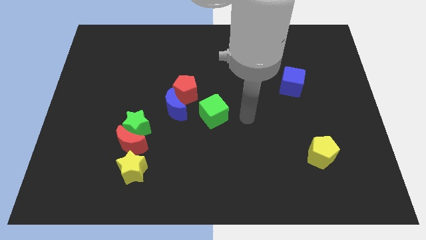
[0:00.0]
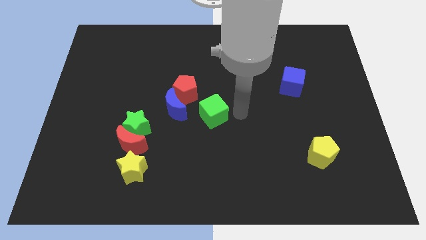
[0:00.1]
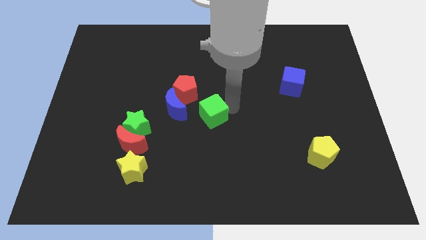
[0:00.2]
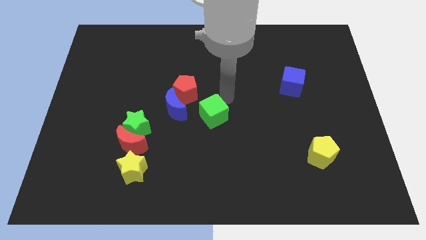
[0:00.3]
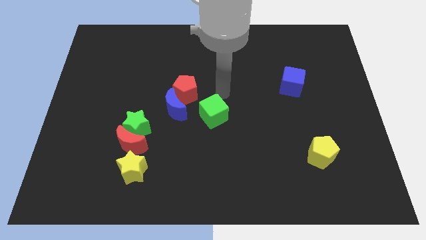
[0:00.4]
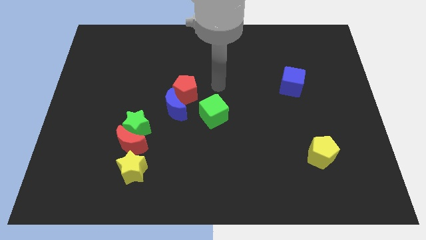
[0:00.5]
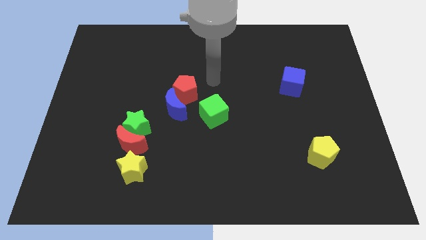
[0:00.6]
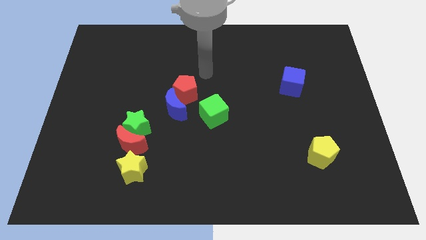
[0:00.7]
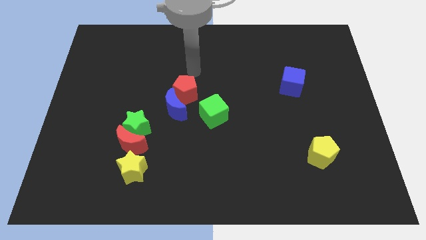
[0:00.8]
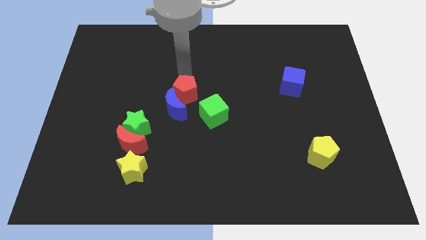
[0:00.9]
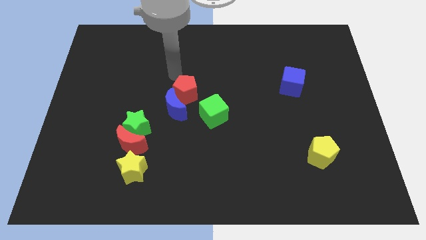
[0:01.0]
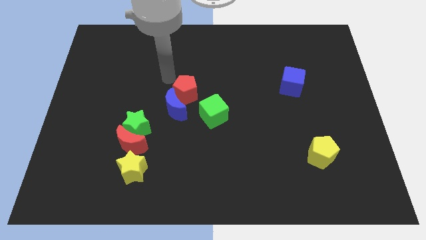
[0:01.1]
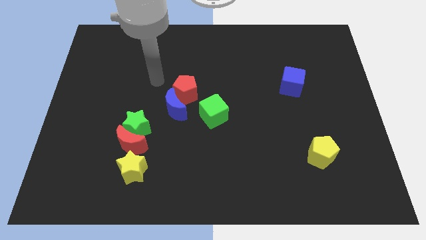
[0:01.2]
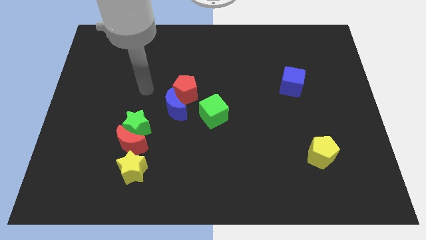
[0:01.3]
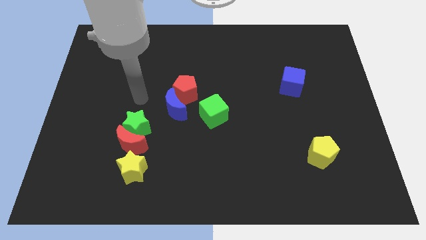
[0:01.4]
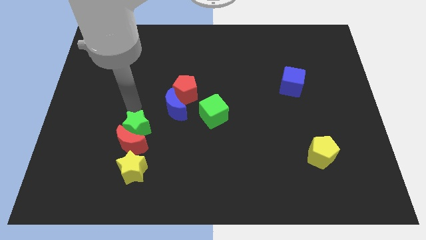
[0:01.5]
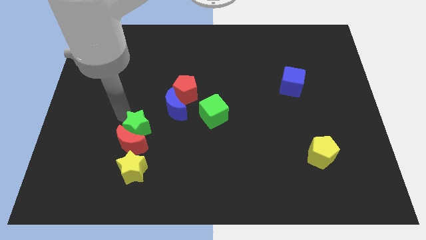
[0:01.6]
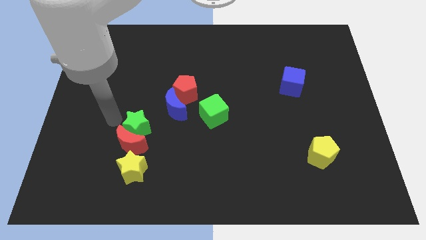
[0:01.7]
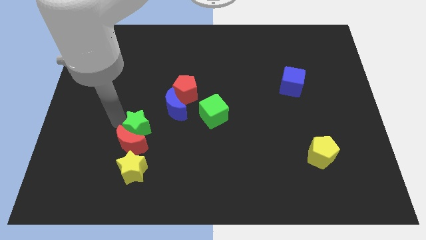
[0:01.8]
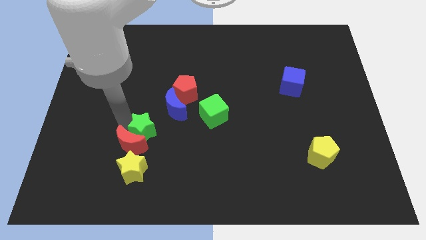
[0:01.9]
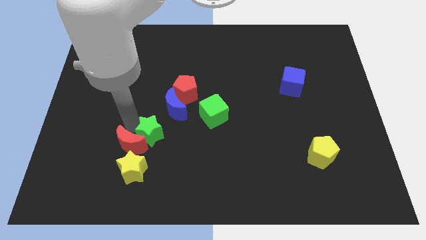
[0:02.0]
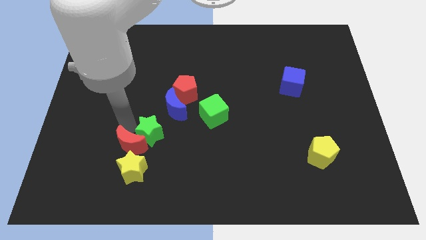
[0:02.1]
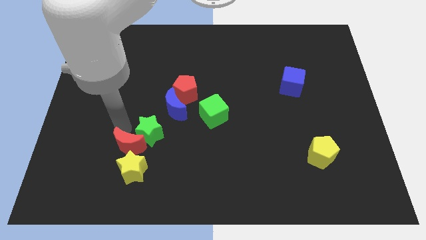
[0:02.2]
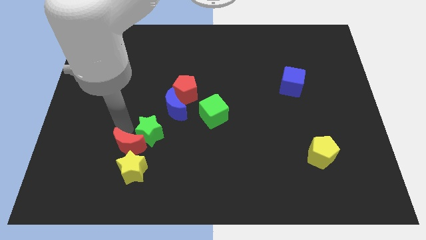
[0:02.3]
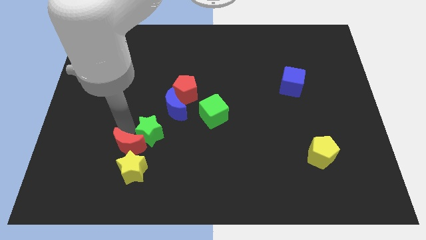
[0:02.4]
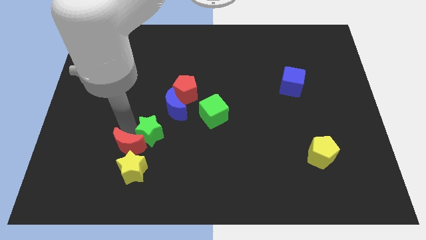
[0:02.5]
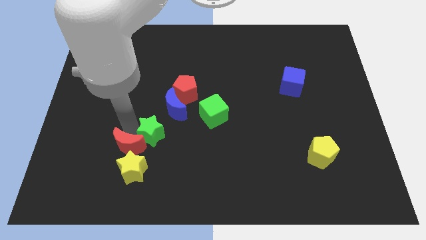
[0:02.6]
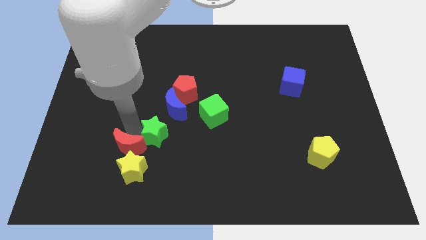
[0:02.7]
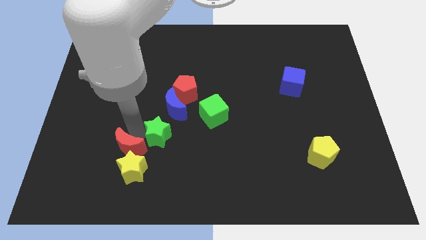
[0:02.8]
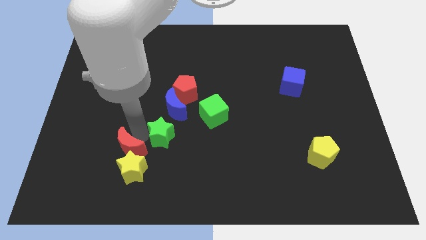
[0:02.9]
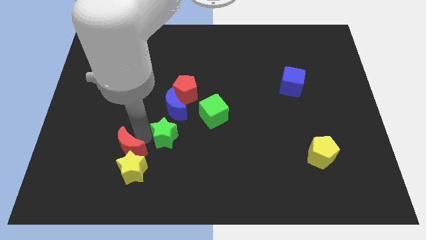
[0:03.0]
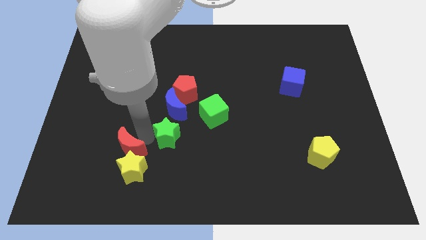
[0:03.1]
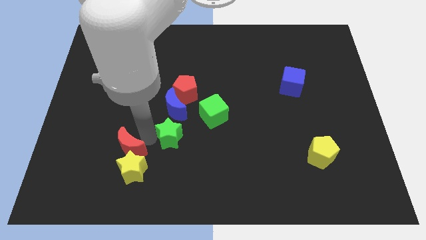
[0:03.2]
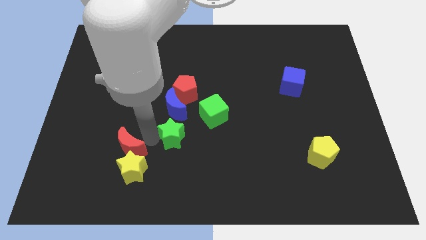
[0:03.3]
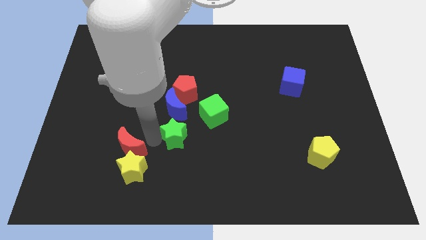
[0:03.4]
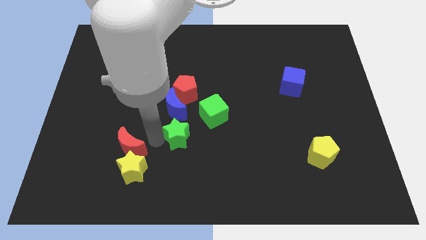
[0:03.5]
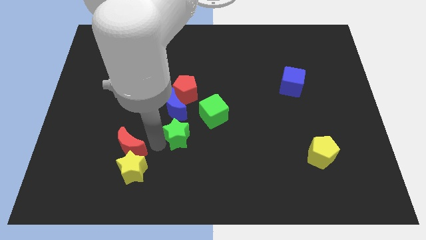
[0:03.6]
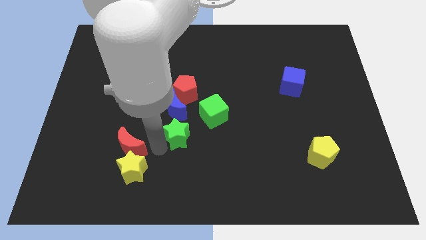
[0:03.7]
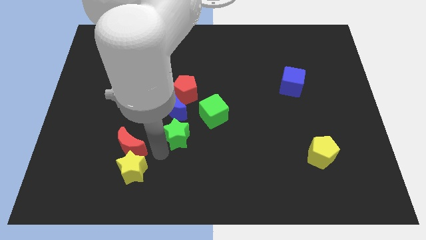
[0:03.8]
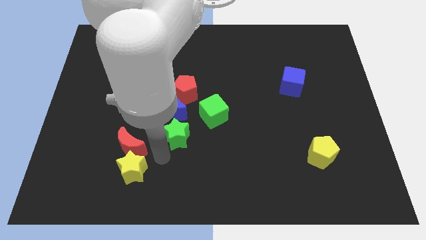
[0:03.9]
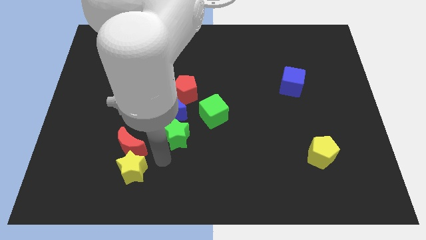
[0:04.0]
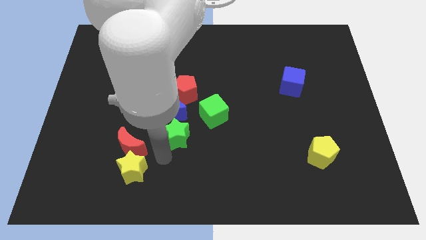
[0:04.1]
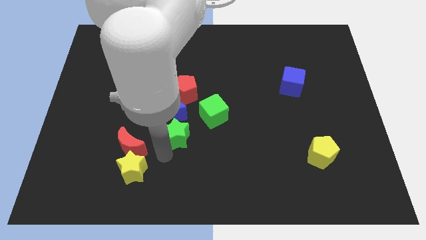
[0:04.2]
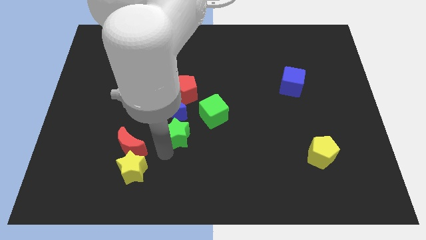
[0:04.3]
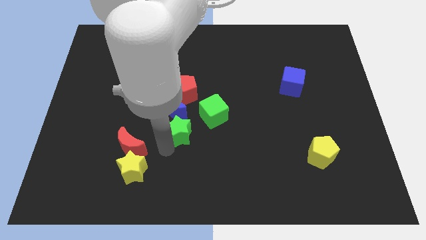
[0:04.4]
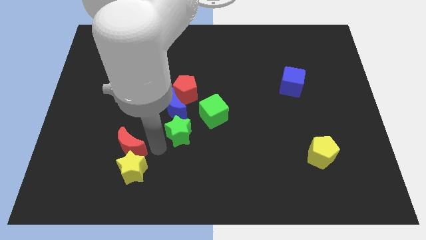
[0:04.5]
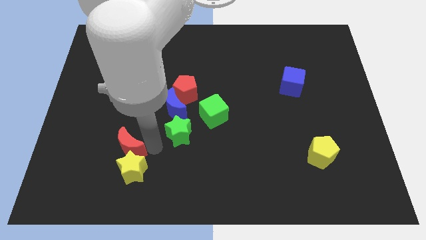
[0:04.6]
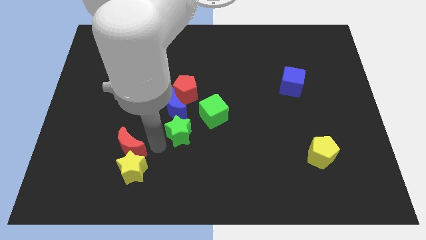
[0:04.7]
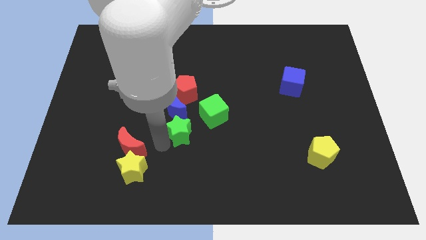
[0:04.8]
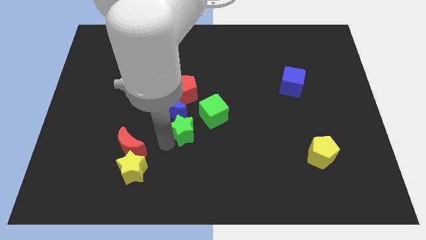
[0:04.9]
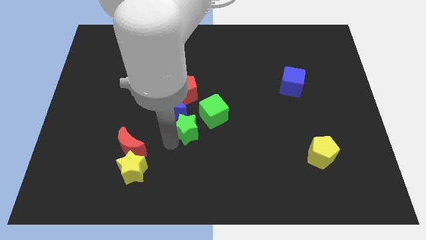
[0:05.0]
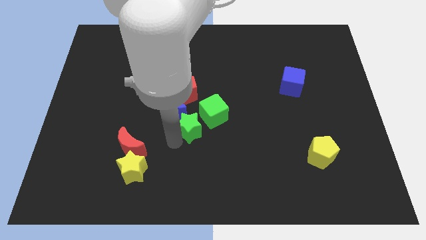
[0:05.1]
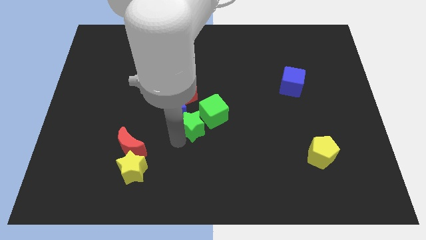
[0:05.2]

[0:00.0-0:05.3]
slide the green star close to the green cube

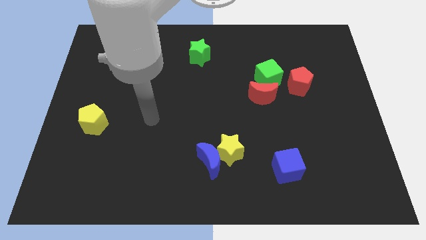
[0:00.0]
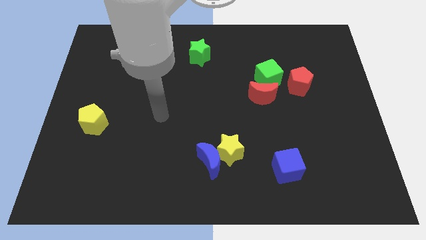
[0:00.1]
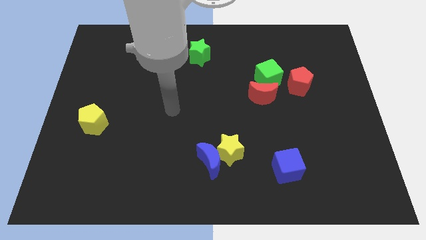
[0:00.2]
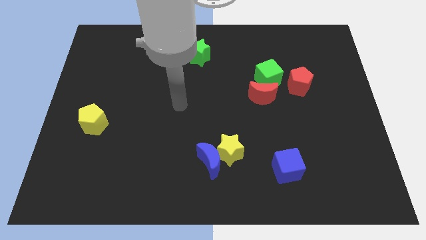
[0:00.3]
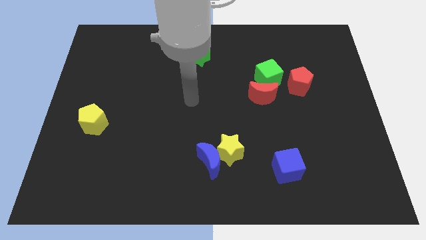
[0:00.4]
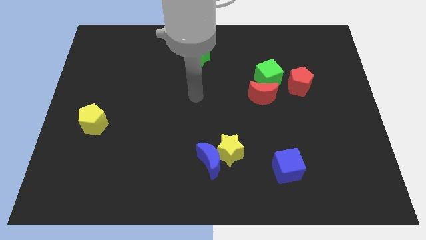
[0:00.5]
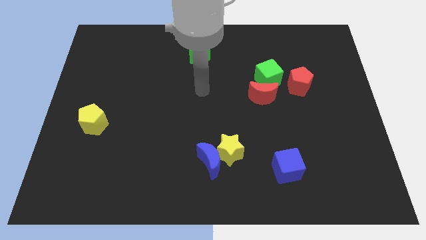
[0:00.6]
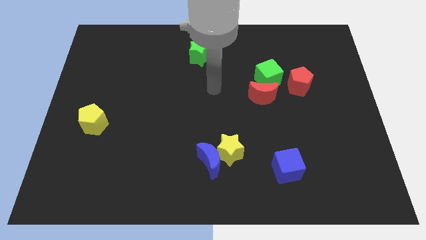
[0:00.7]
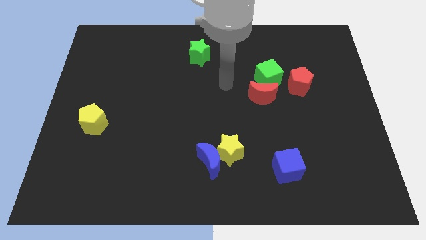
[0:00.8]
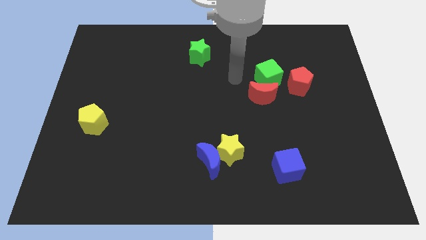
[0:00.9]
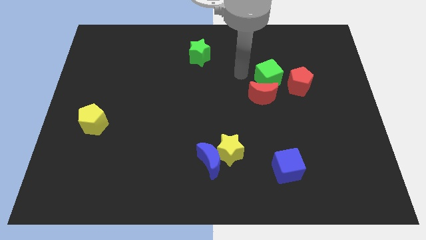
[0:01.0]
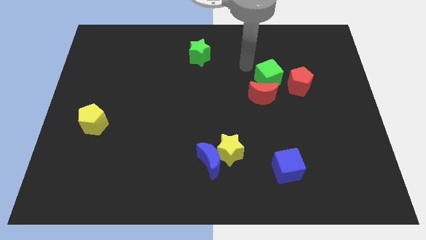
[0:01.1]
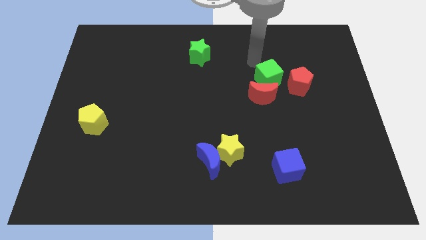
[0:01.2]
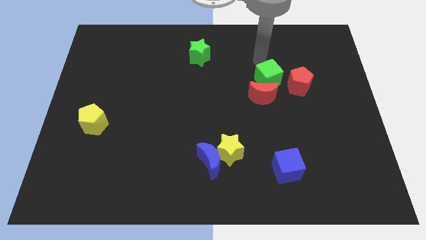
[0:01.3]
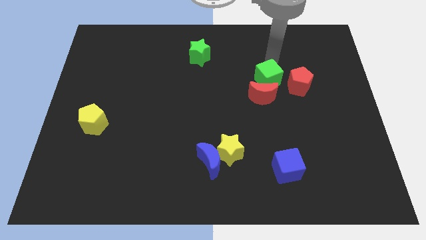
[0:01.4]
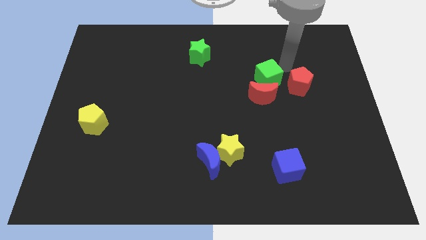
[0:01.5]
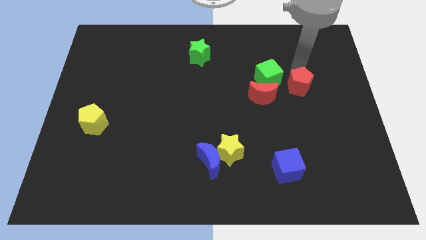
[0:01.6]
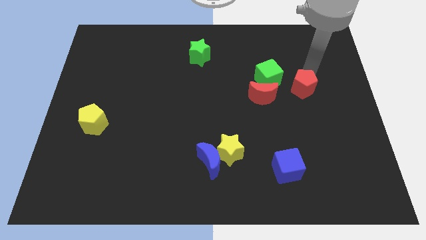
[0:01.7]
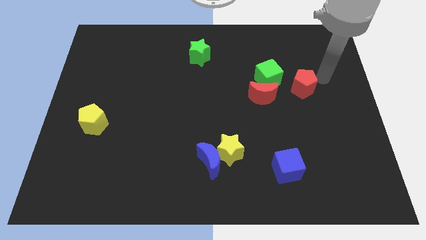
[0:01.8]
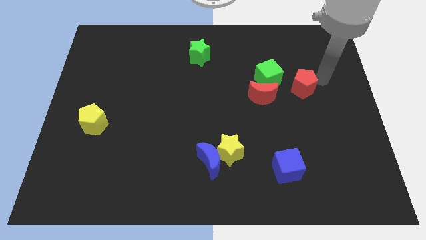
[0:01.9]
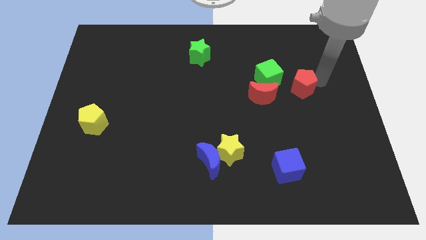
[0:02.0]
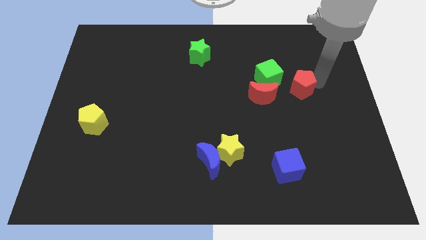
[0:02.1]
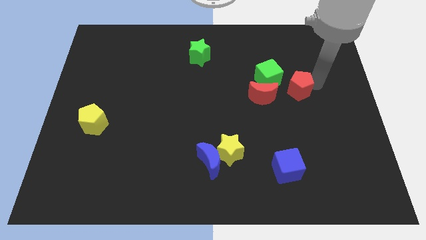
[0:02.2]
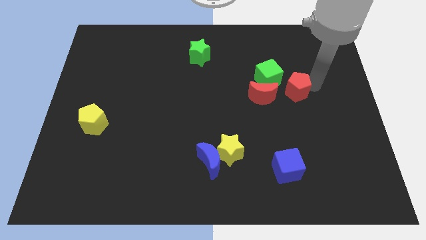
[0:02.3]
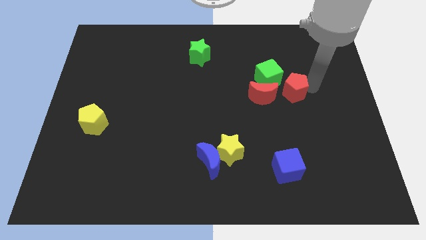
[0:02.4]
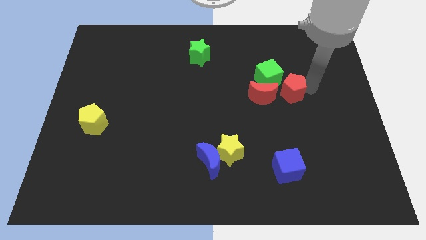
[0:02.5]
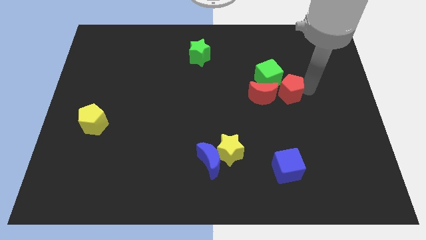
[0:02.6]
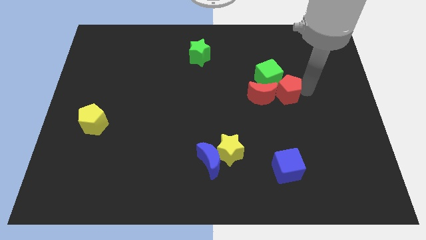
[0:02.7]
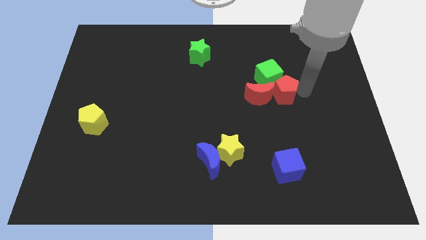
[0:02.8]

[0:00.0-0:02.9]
put the red pentagon towards the red moon
